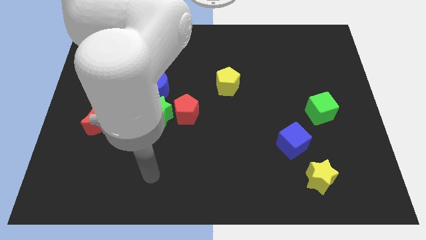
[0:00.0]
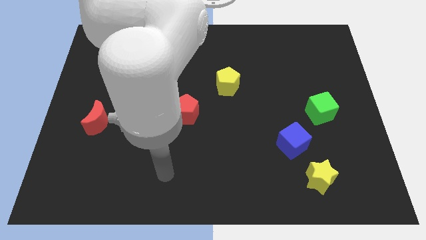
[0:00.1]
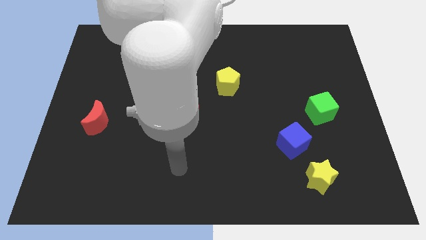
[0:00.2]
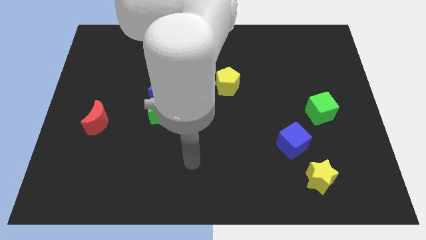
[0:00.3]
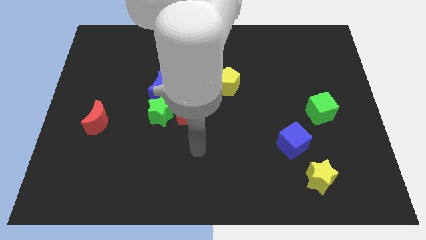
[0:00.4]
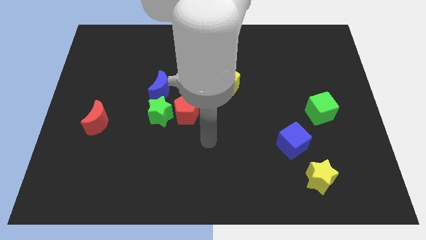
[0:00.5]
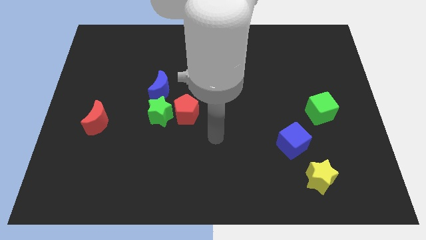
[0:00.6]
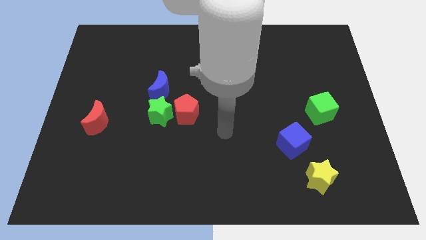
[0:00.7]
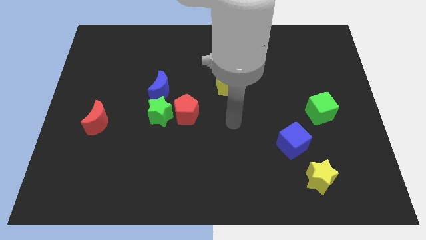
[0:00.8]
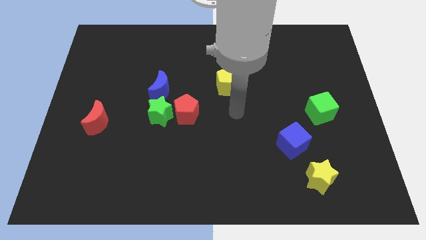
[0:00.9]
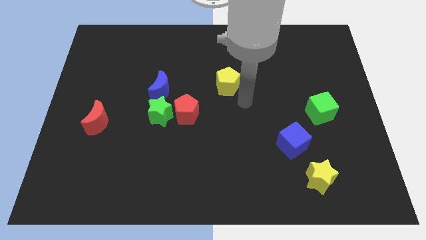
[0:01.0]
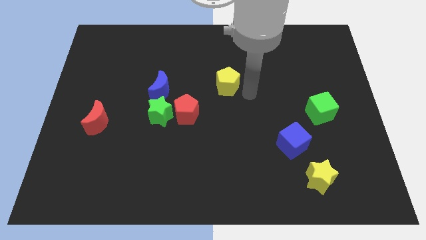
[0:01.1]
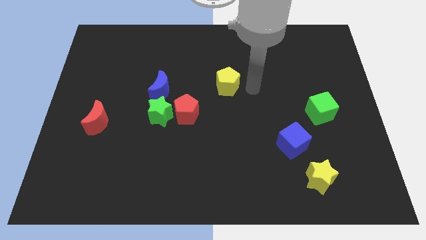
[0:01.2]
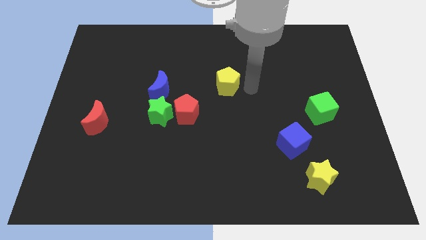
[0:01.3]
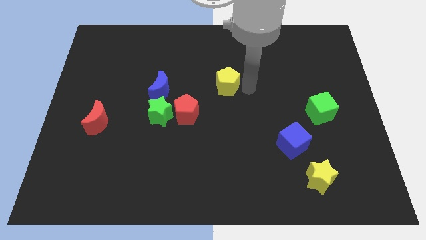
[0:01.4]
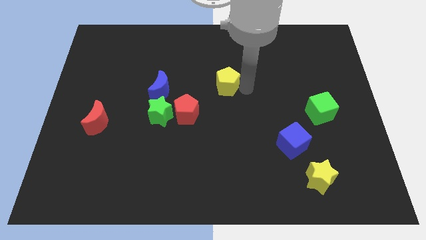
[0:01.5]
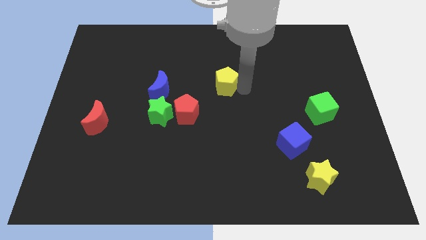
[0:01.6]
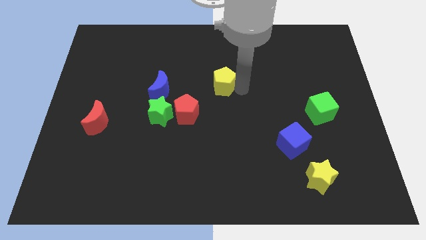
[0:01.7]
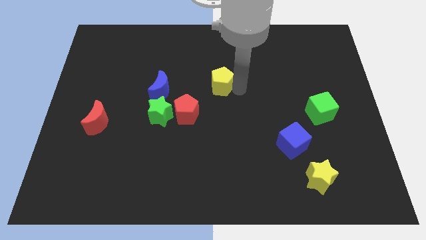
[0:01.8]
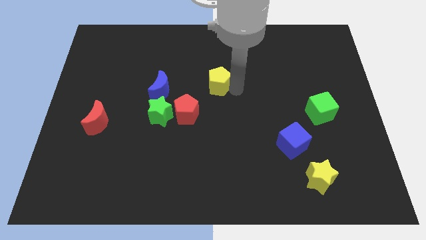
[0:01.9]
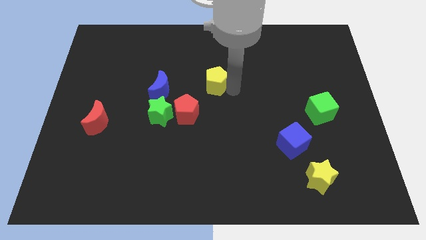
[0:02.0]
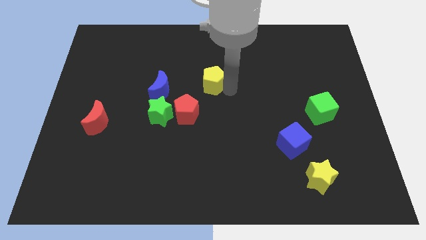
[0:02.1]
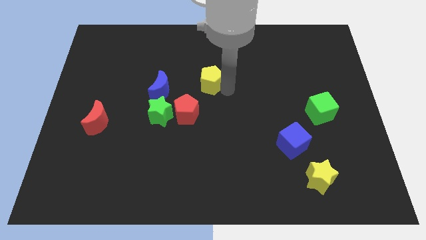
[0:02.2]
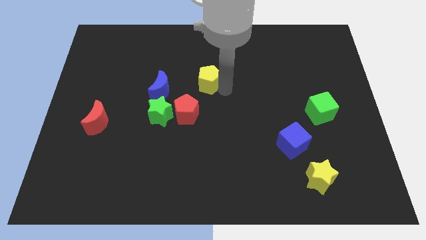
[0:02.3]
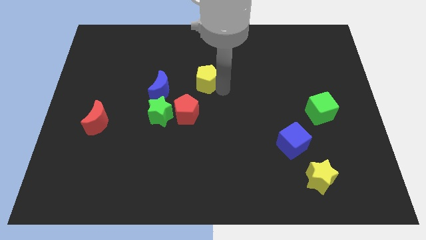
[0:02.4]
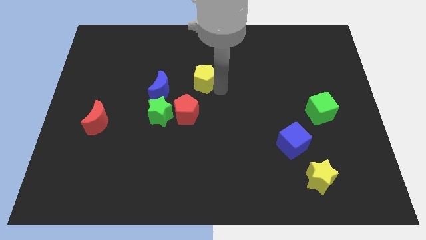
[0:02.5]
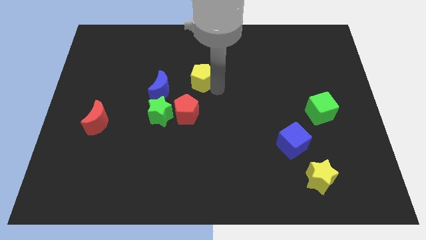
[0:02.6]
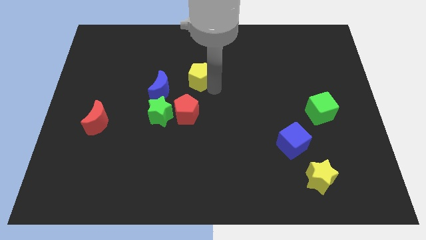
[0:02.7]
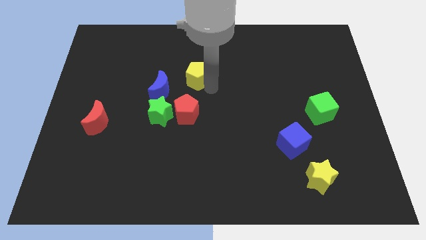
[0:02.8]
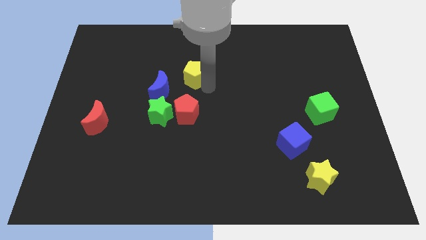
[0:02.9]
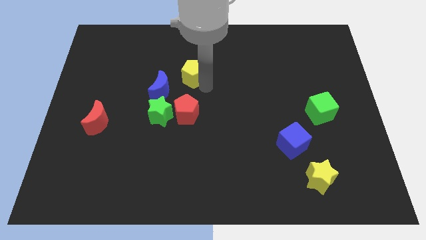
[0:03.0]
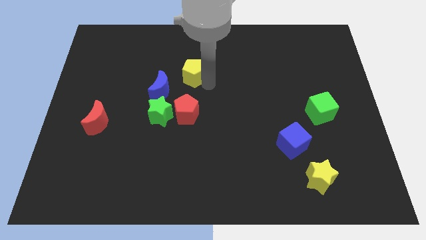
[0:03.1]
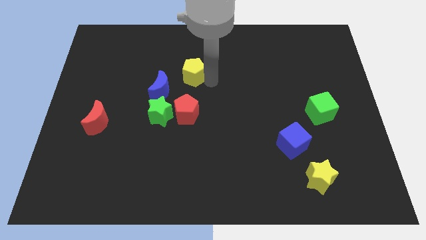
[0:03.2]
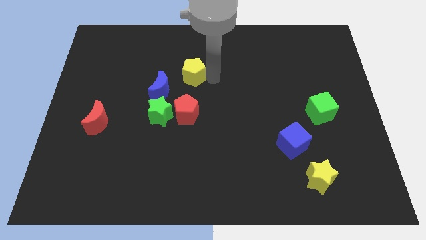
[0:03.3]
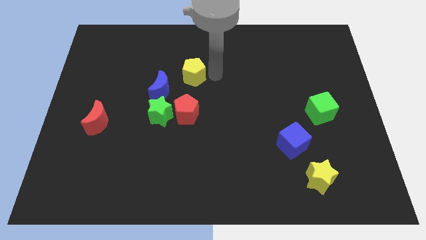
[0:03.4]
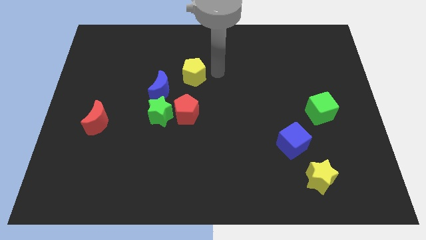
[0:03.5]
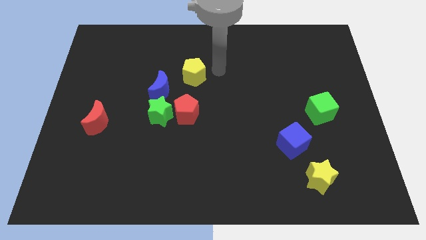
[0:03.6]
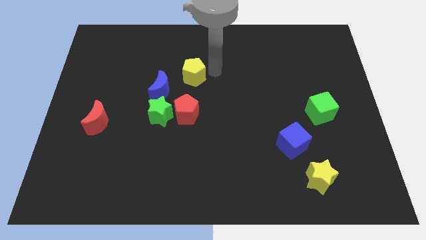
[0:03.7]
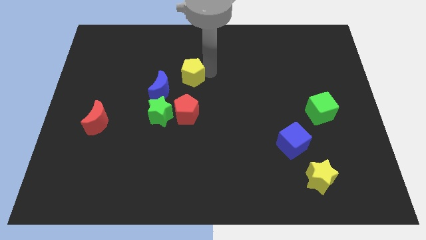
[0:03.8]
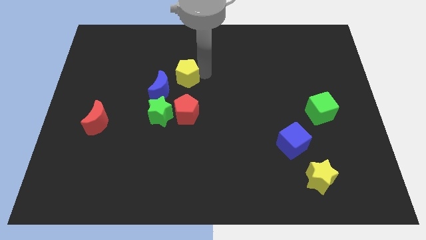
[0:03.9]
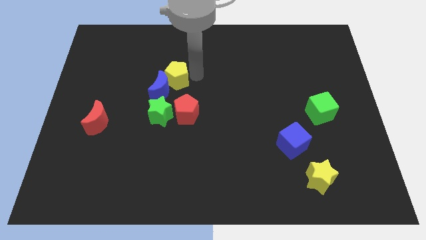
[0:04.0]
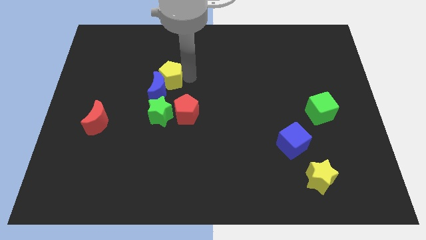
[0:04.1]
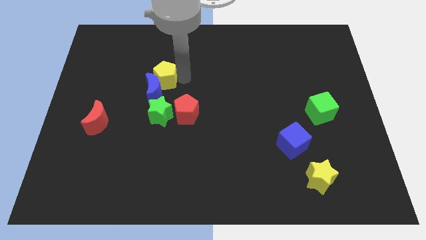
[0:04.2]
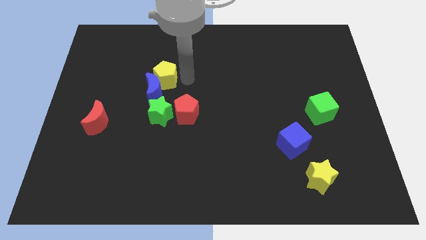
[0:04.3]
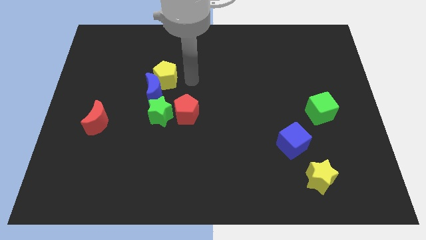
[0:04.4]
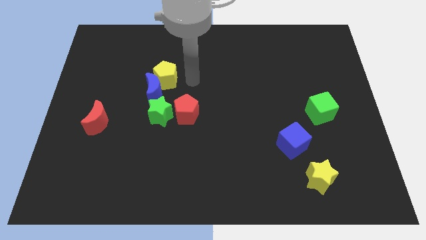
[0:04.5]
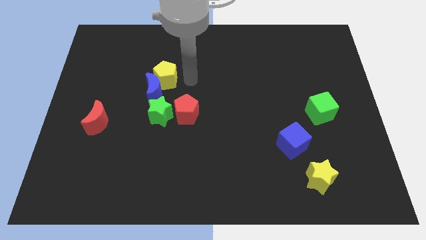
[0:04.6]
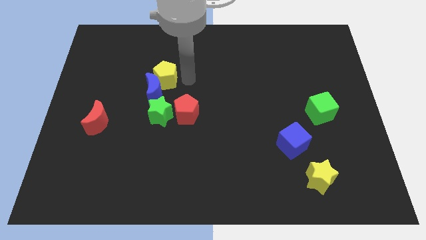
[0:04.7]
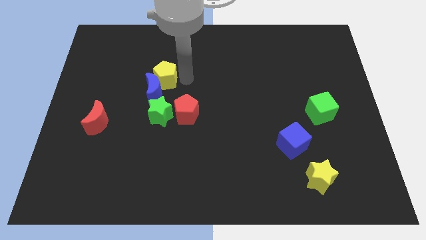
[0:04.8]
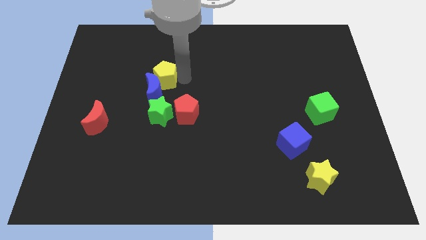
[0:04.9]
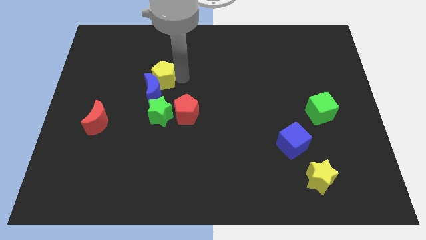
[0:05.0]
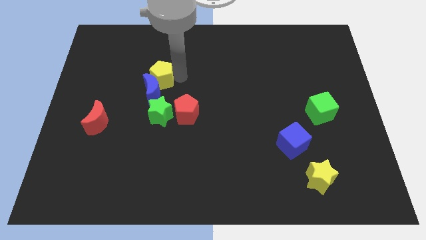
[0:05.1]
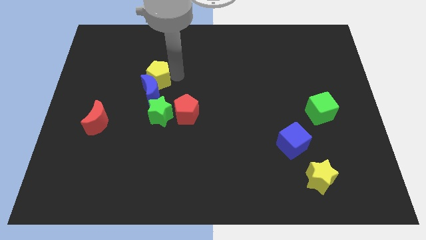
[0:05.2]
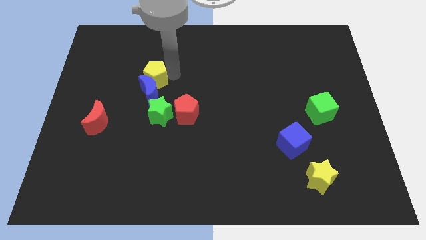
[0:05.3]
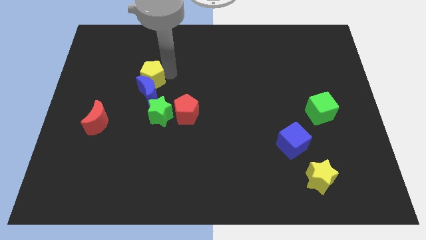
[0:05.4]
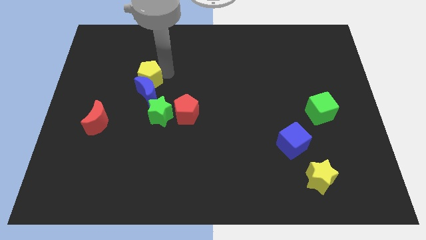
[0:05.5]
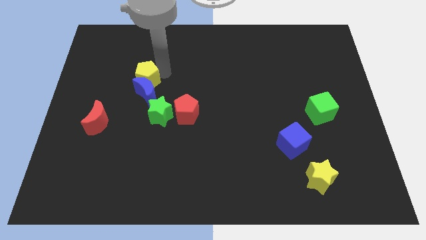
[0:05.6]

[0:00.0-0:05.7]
push the yellow pentagon left

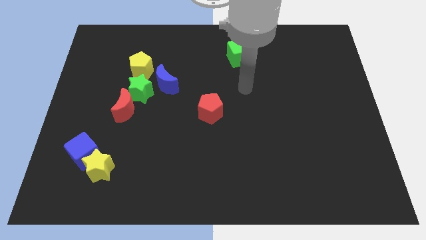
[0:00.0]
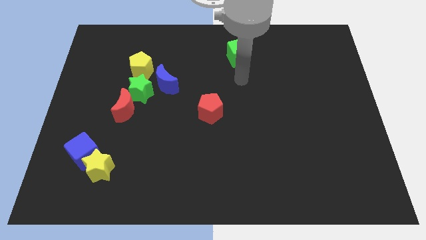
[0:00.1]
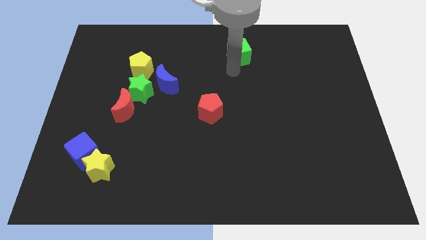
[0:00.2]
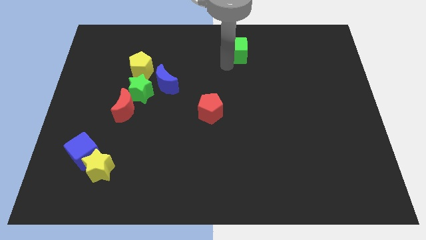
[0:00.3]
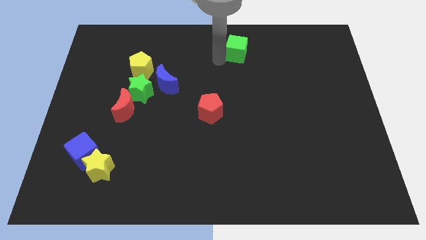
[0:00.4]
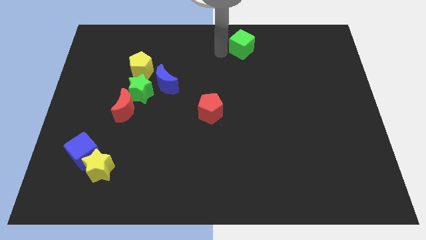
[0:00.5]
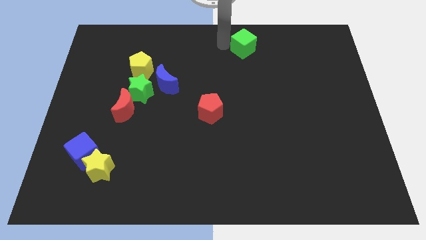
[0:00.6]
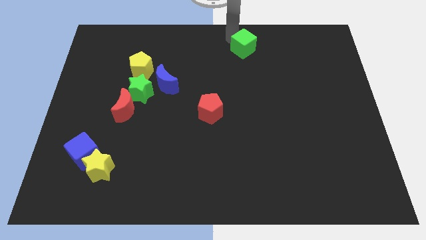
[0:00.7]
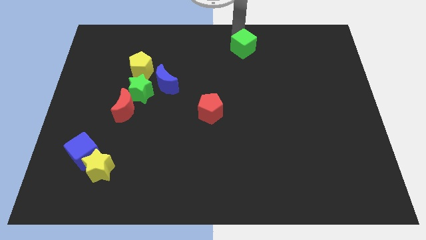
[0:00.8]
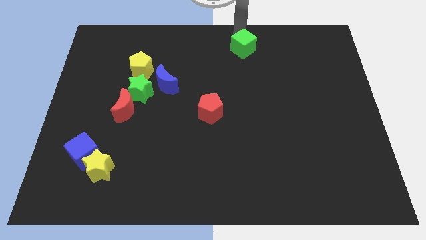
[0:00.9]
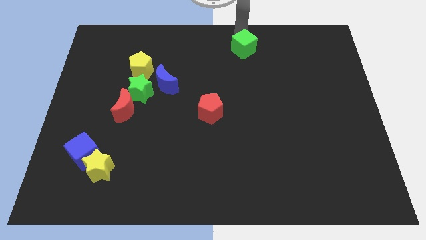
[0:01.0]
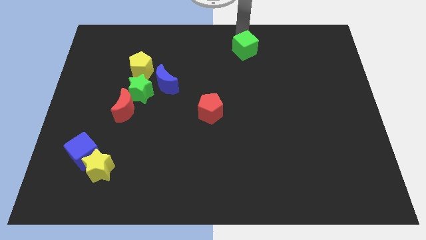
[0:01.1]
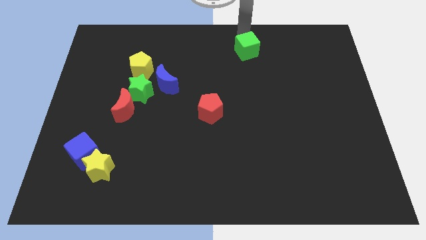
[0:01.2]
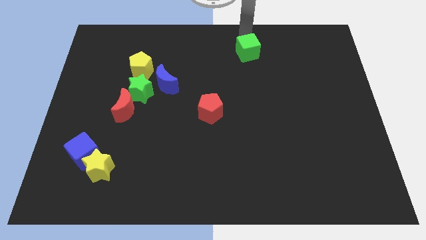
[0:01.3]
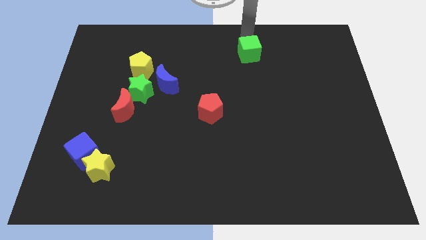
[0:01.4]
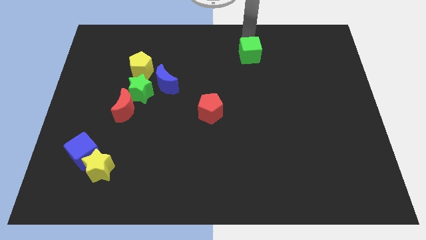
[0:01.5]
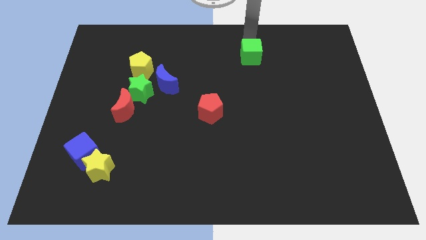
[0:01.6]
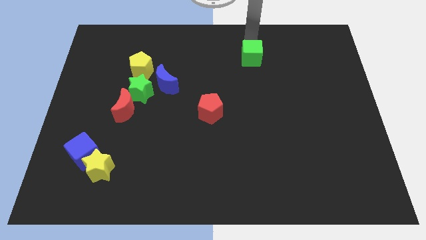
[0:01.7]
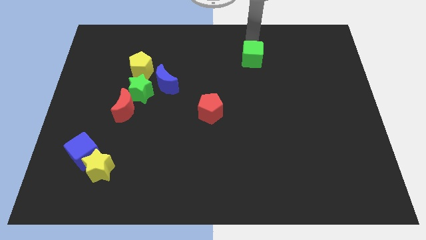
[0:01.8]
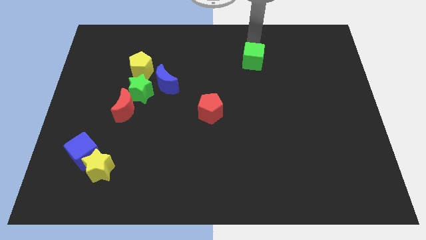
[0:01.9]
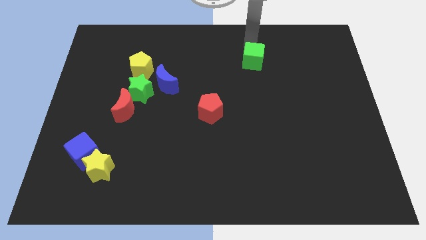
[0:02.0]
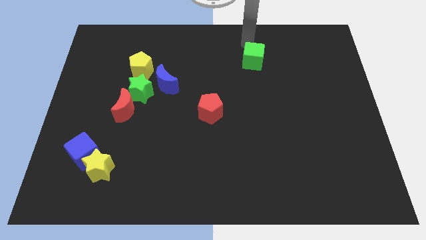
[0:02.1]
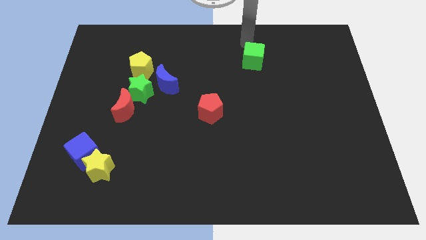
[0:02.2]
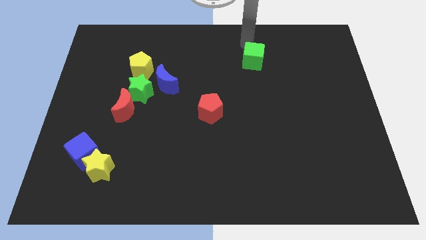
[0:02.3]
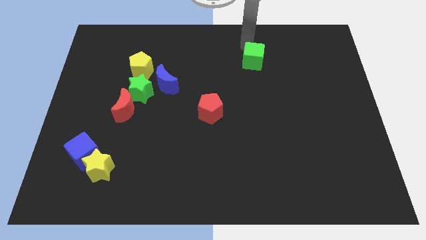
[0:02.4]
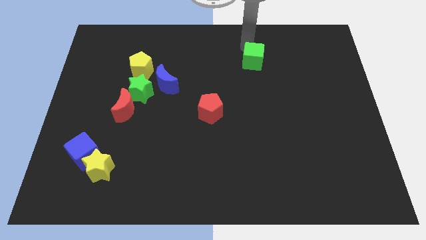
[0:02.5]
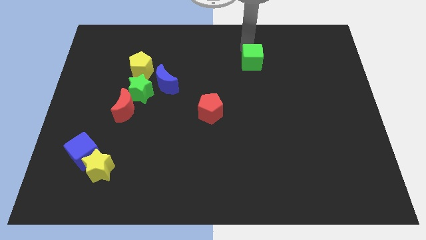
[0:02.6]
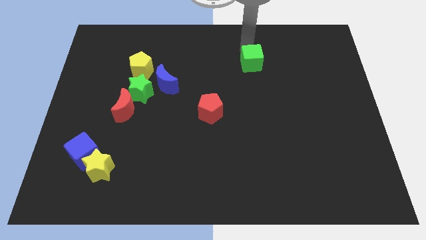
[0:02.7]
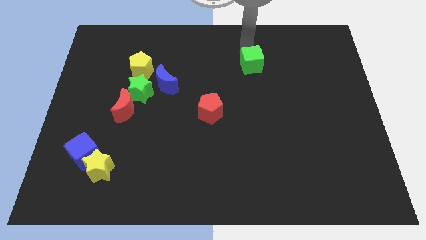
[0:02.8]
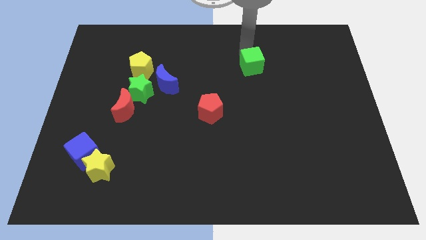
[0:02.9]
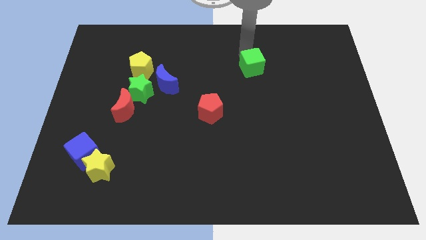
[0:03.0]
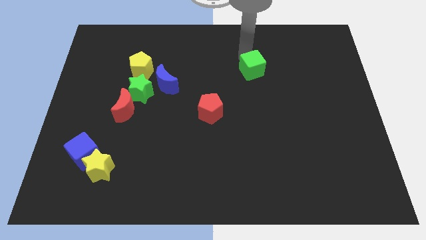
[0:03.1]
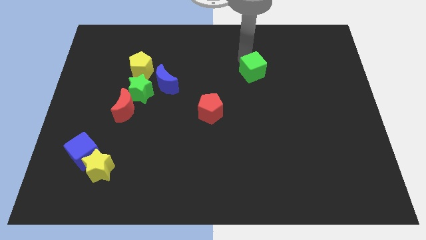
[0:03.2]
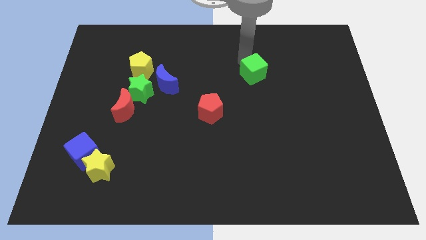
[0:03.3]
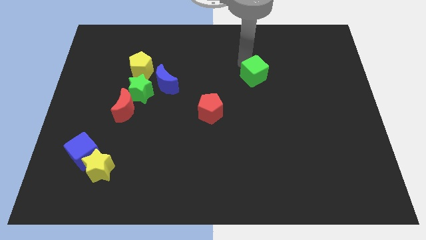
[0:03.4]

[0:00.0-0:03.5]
push the green cube somewhat downwards and to the right diagonally
